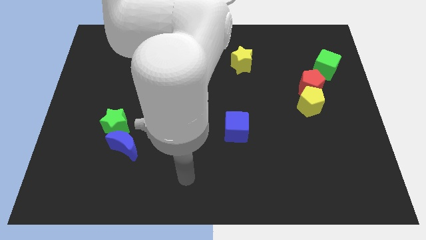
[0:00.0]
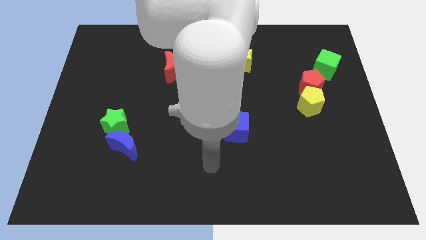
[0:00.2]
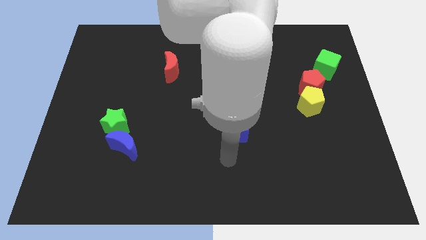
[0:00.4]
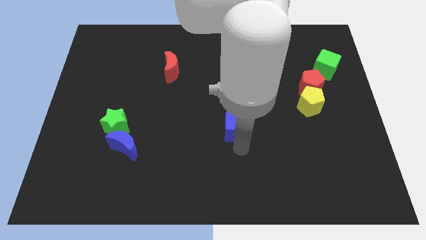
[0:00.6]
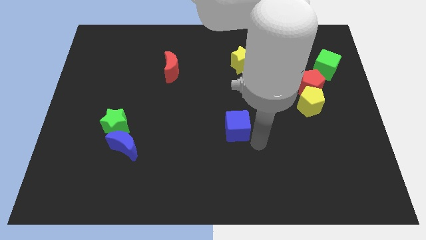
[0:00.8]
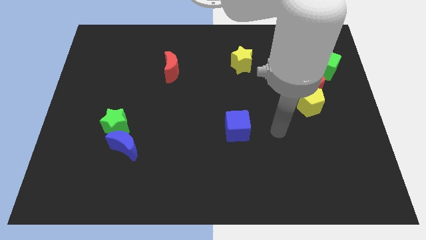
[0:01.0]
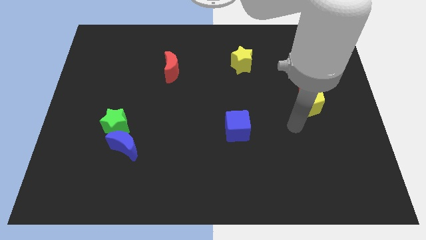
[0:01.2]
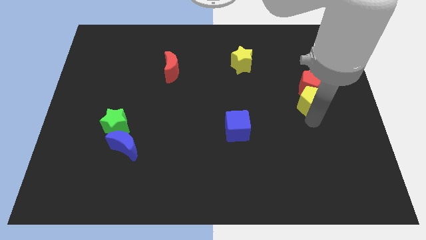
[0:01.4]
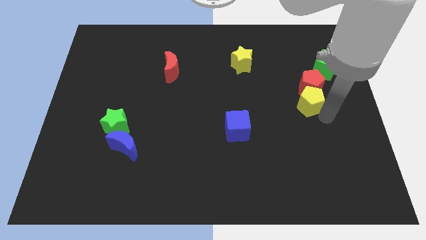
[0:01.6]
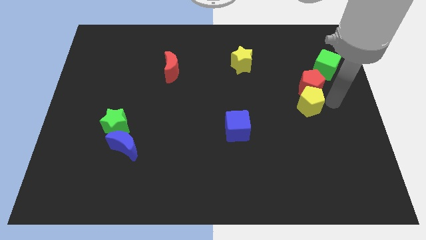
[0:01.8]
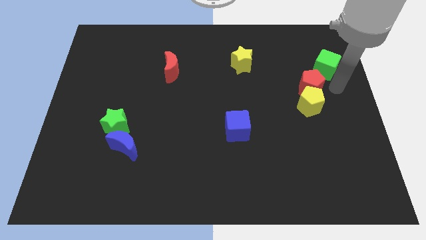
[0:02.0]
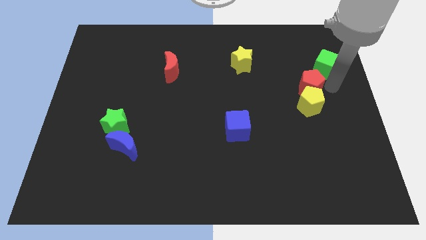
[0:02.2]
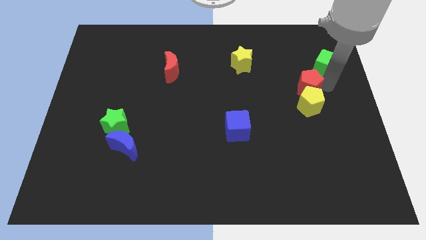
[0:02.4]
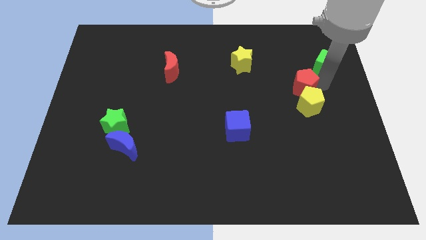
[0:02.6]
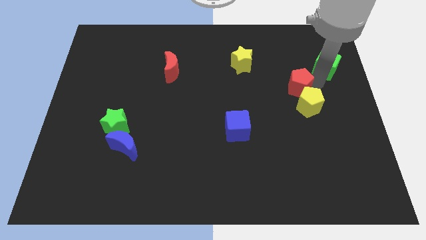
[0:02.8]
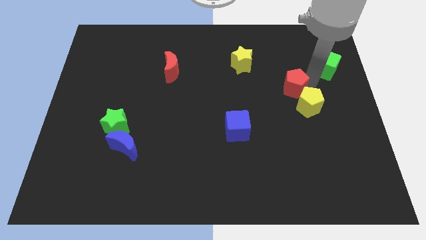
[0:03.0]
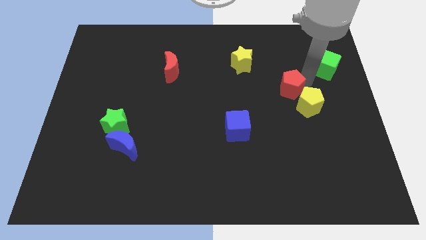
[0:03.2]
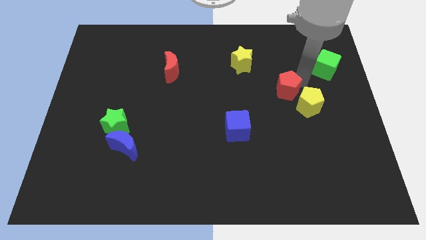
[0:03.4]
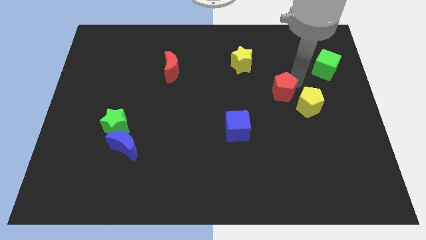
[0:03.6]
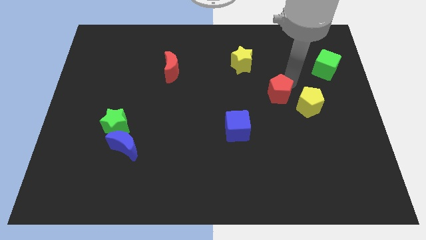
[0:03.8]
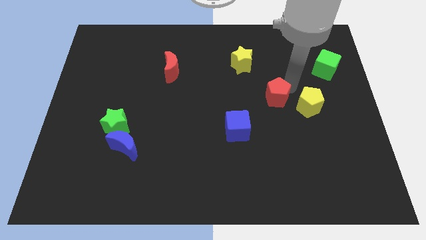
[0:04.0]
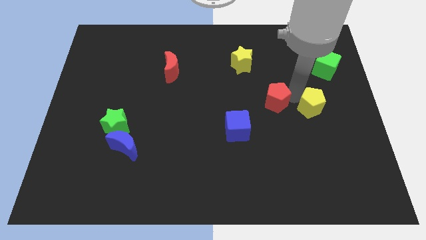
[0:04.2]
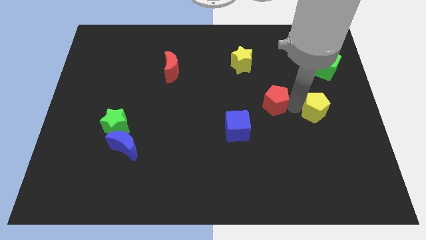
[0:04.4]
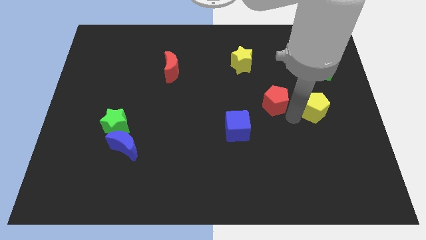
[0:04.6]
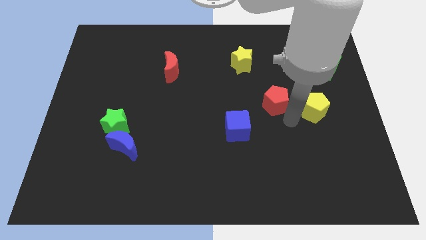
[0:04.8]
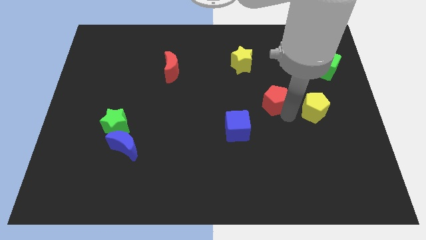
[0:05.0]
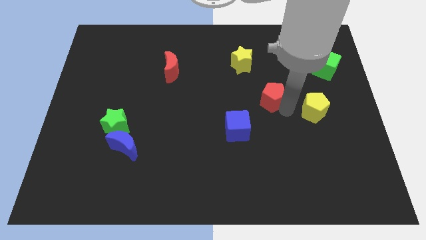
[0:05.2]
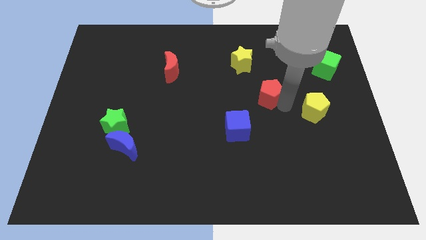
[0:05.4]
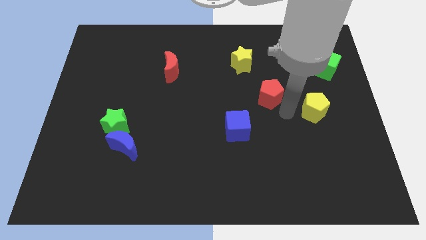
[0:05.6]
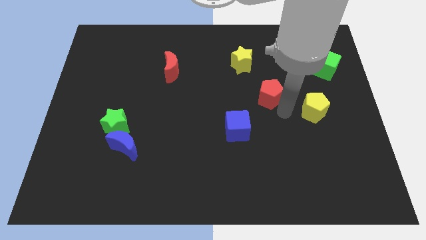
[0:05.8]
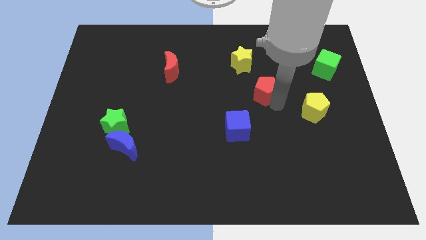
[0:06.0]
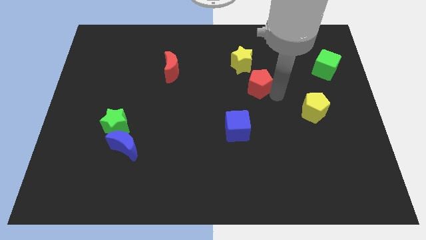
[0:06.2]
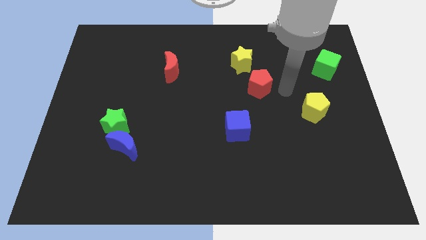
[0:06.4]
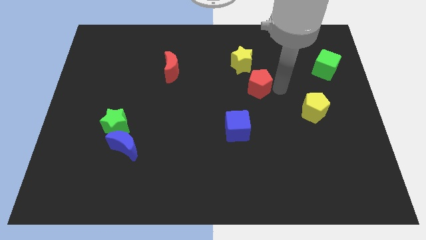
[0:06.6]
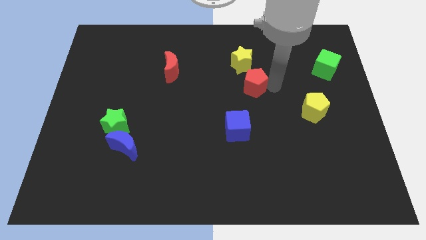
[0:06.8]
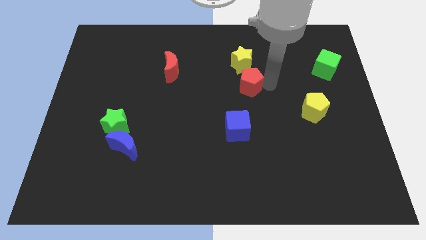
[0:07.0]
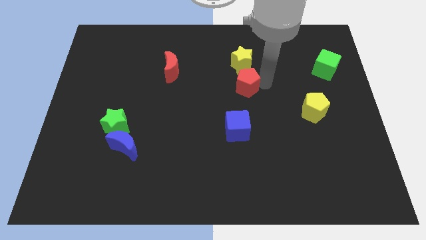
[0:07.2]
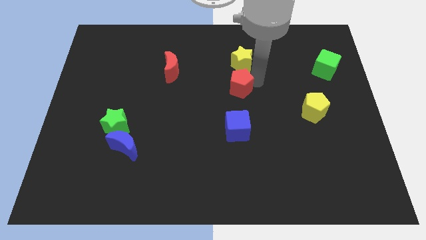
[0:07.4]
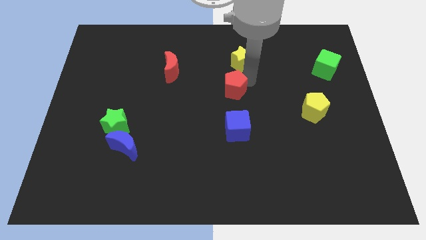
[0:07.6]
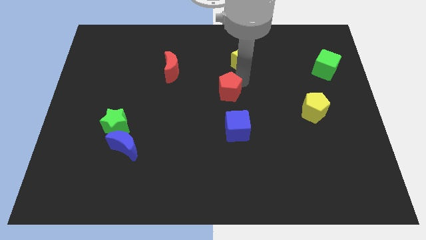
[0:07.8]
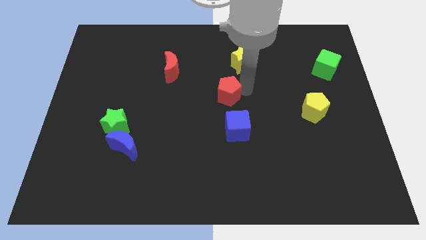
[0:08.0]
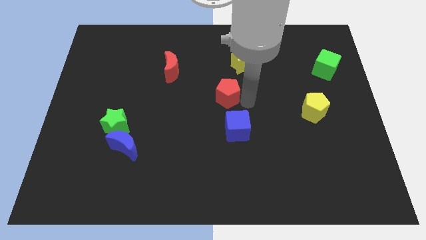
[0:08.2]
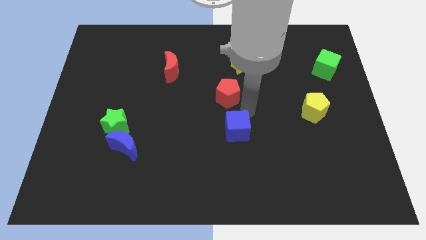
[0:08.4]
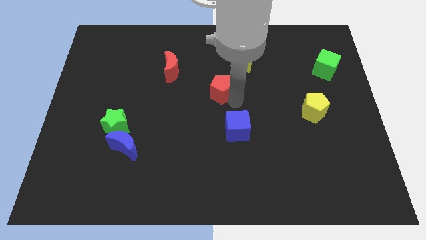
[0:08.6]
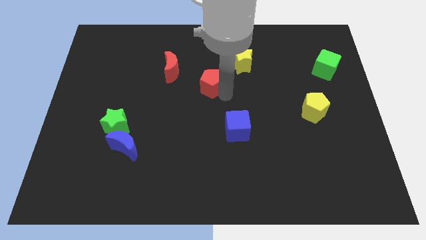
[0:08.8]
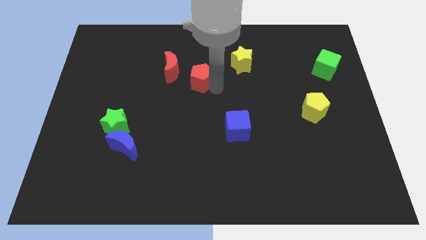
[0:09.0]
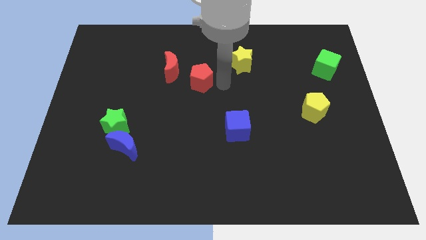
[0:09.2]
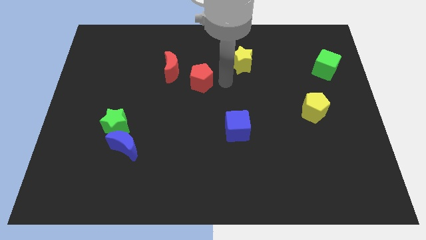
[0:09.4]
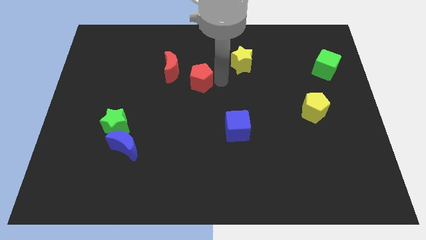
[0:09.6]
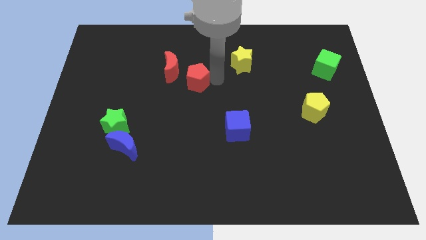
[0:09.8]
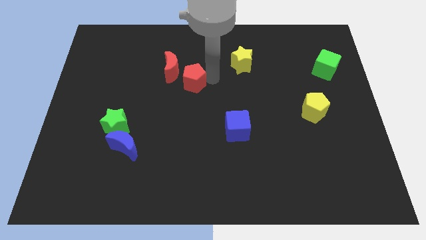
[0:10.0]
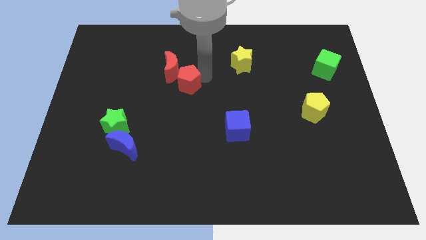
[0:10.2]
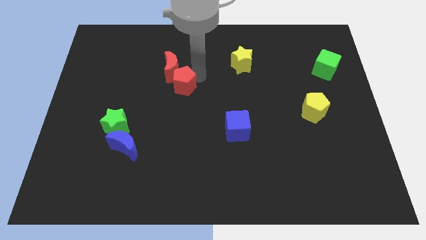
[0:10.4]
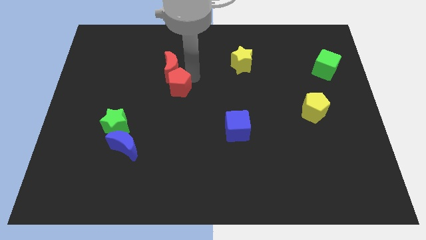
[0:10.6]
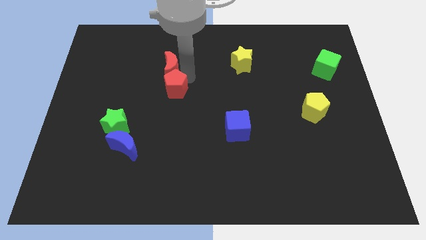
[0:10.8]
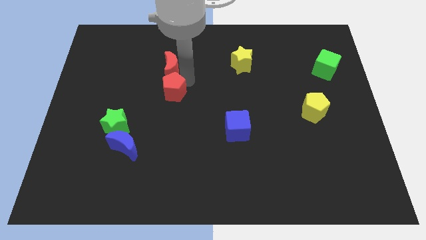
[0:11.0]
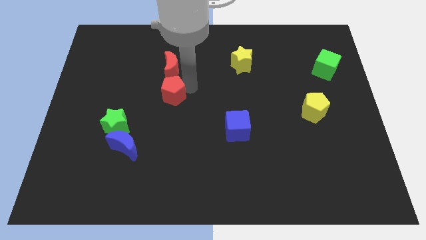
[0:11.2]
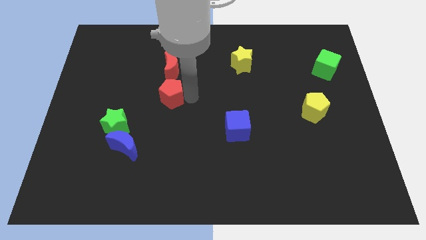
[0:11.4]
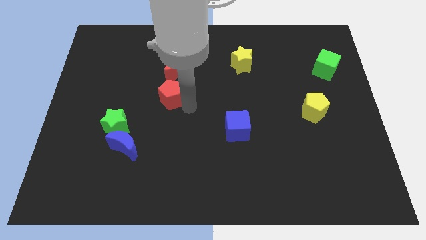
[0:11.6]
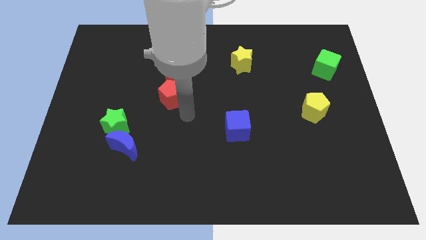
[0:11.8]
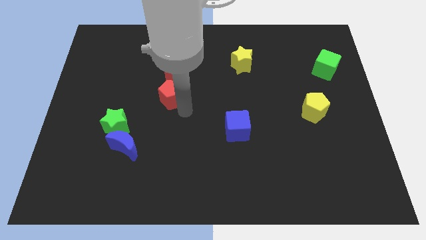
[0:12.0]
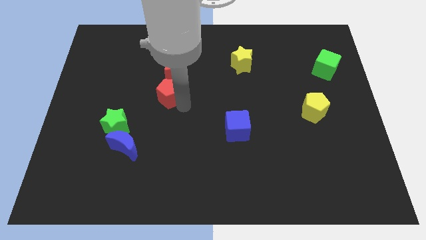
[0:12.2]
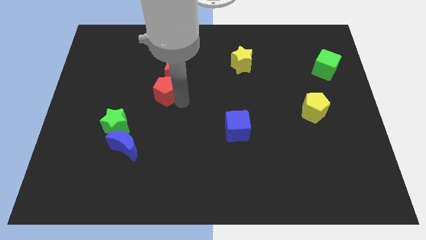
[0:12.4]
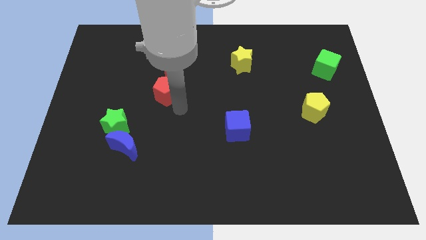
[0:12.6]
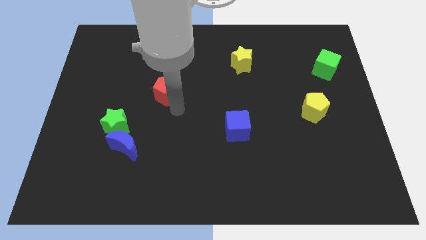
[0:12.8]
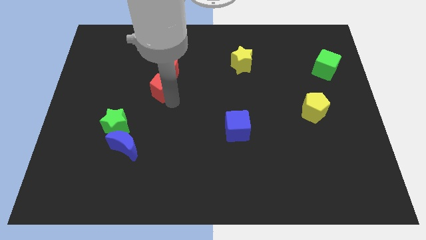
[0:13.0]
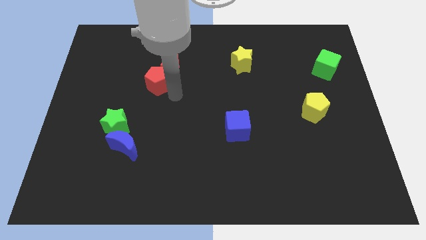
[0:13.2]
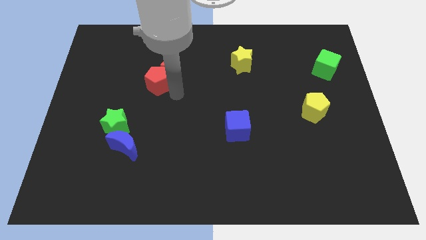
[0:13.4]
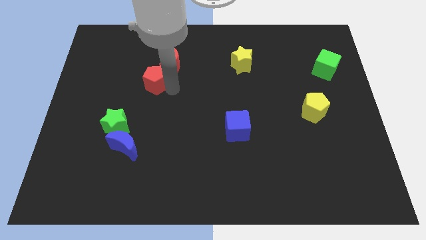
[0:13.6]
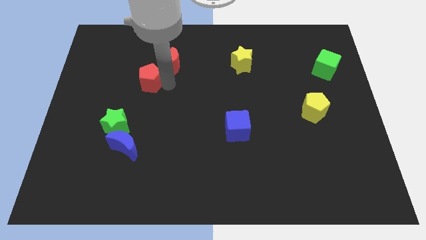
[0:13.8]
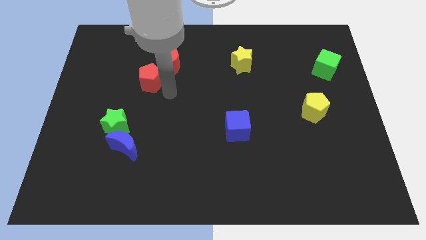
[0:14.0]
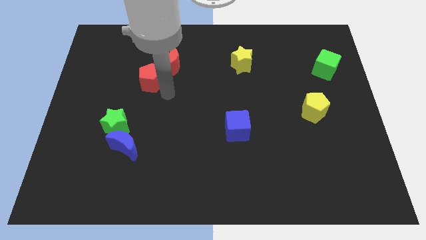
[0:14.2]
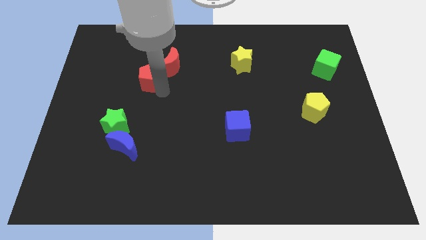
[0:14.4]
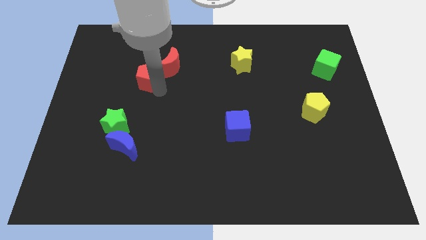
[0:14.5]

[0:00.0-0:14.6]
put the red pentagon to the left side of the red moon

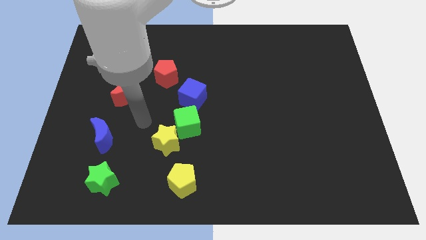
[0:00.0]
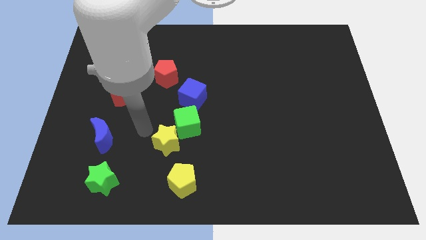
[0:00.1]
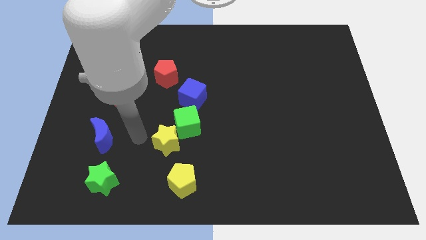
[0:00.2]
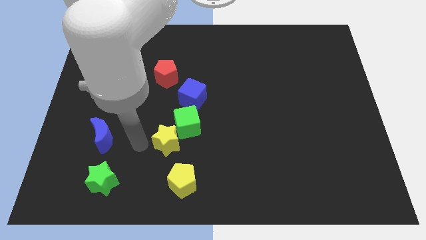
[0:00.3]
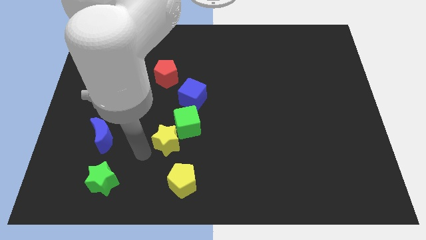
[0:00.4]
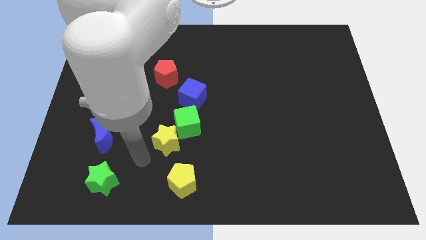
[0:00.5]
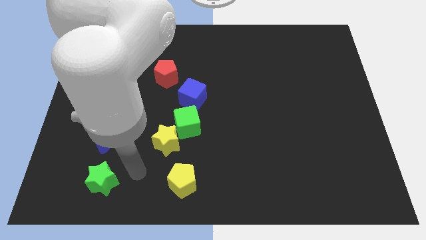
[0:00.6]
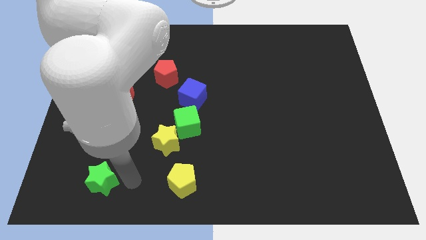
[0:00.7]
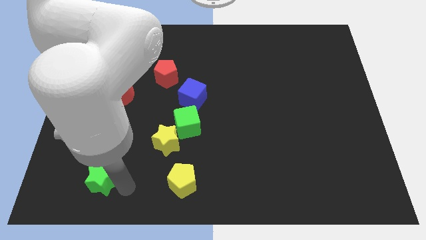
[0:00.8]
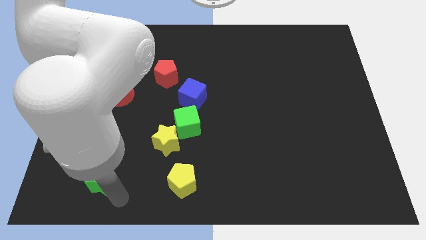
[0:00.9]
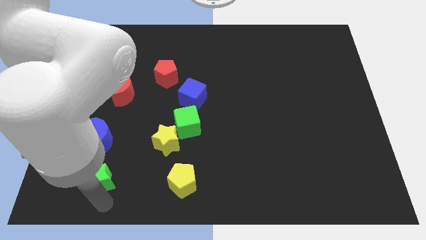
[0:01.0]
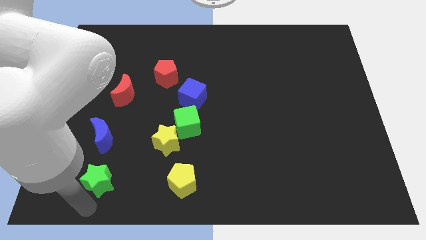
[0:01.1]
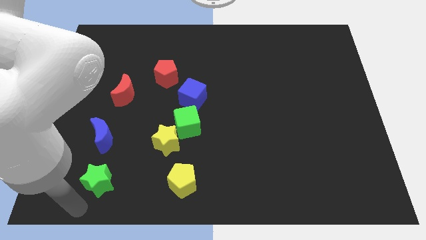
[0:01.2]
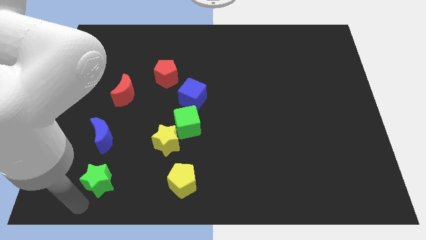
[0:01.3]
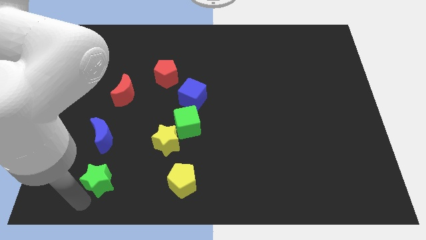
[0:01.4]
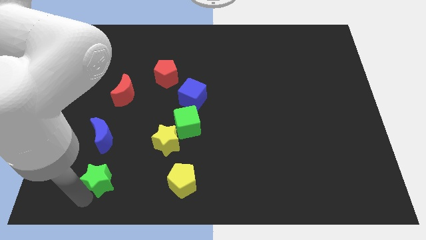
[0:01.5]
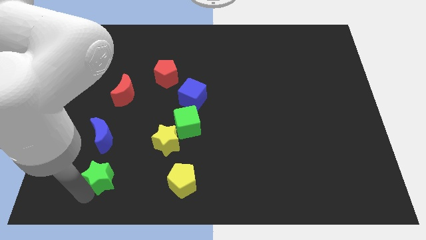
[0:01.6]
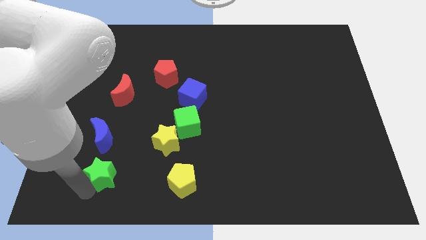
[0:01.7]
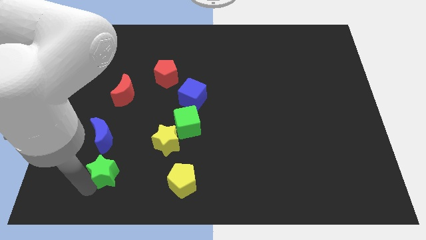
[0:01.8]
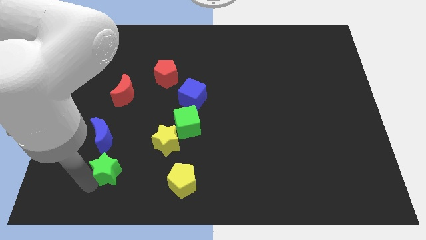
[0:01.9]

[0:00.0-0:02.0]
move the green star diagonally down and to the right of the blue moon
